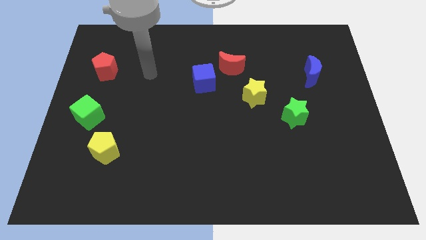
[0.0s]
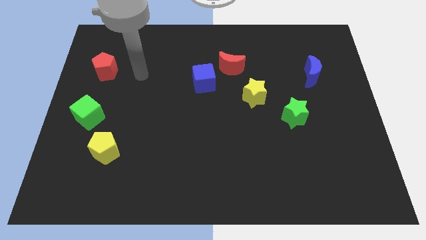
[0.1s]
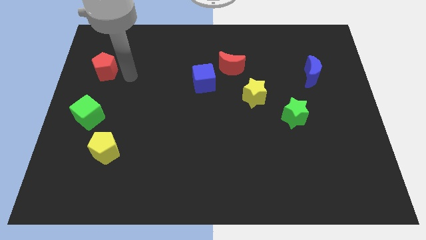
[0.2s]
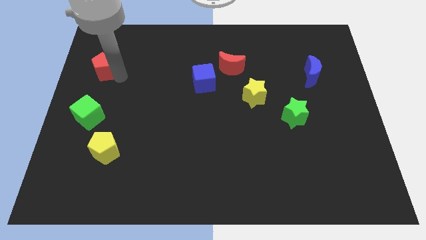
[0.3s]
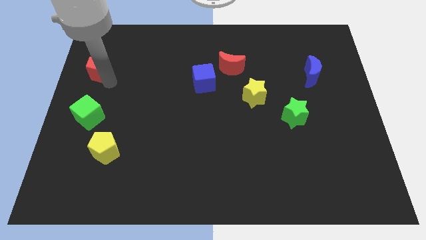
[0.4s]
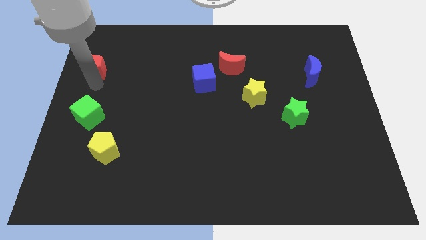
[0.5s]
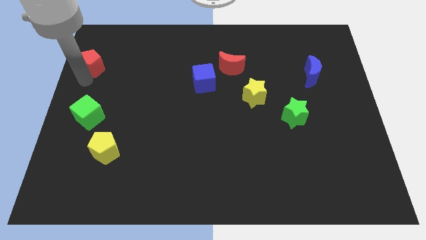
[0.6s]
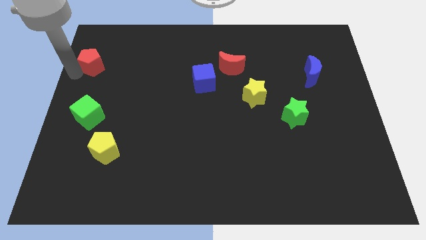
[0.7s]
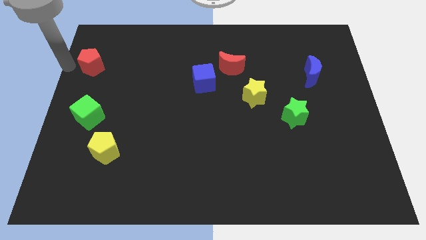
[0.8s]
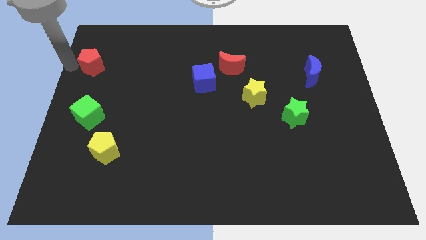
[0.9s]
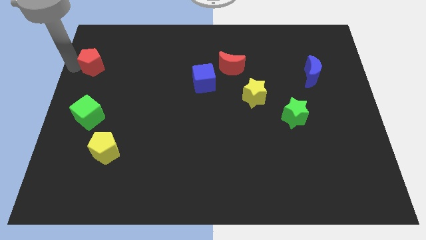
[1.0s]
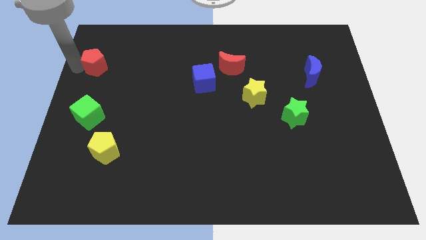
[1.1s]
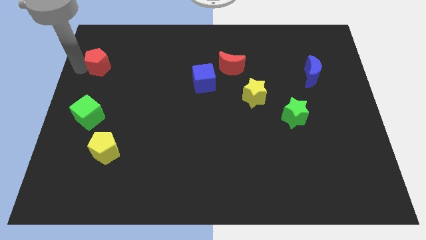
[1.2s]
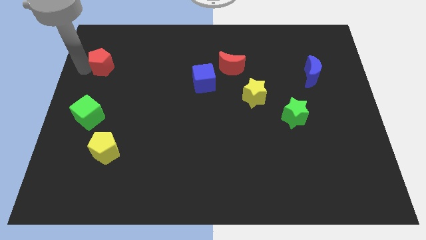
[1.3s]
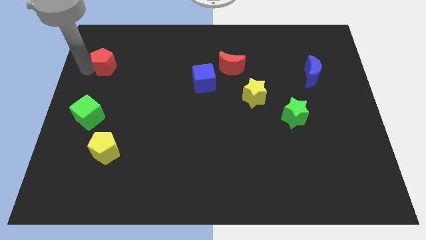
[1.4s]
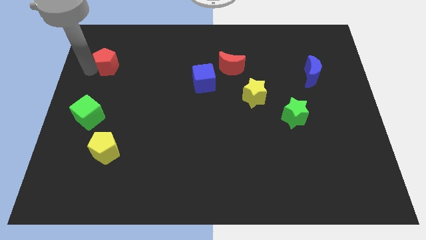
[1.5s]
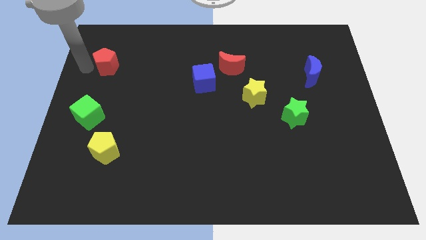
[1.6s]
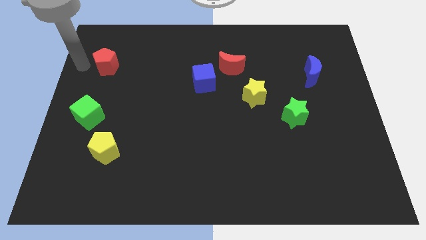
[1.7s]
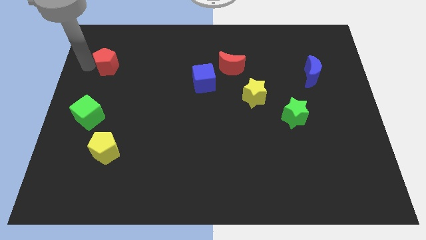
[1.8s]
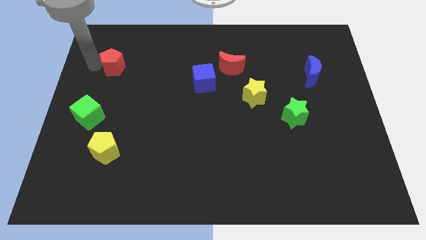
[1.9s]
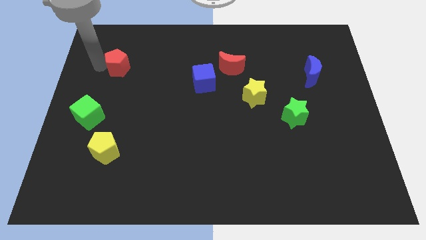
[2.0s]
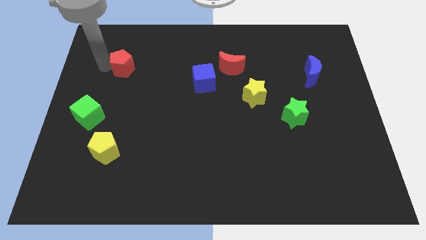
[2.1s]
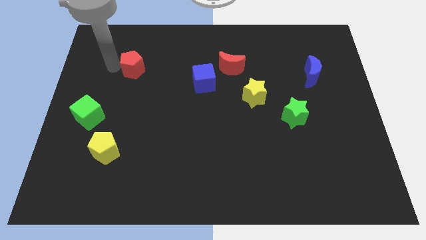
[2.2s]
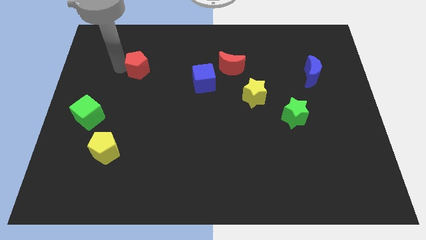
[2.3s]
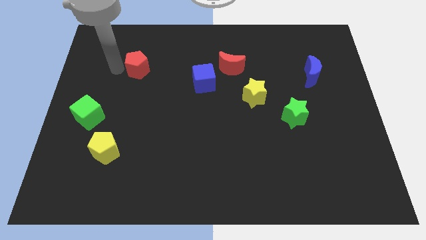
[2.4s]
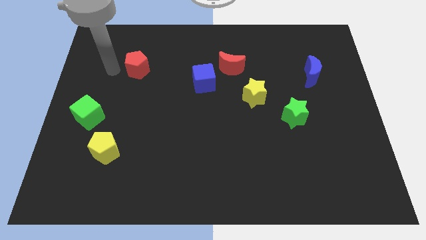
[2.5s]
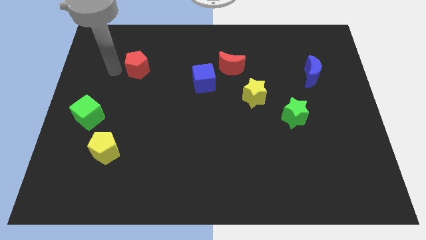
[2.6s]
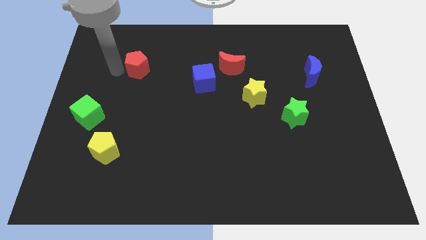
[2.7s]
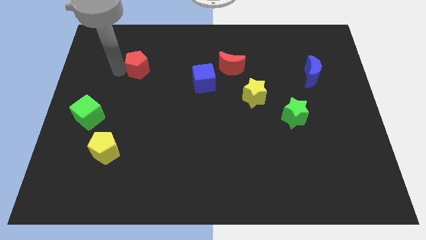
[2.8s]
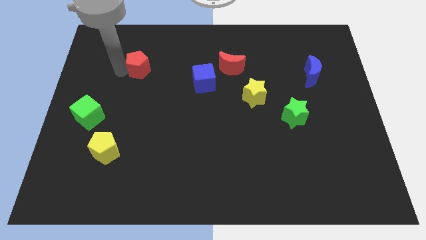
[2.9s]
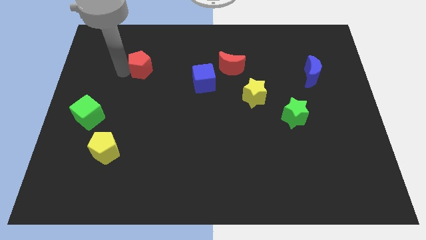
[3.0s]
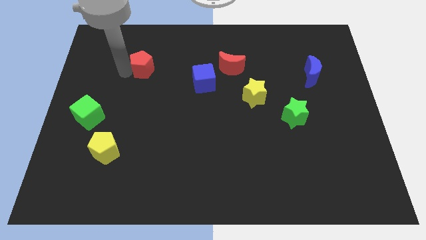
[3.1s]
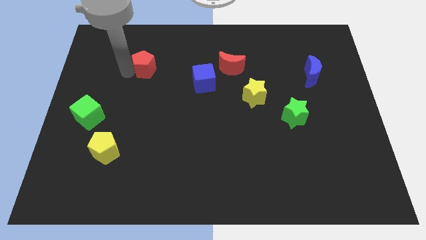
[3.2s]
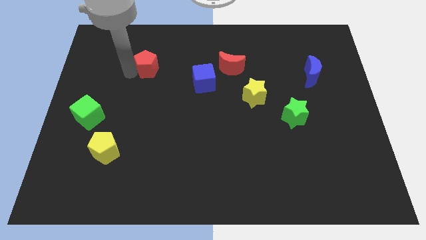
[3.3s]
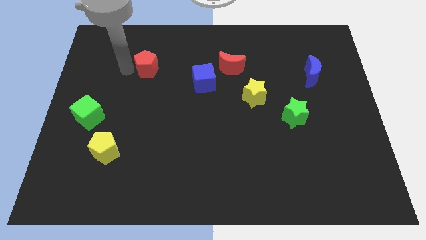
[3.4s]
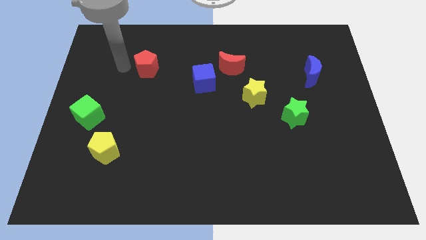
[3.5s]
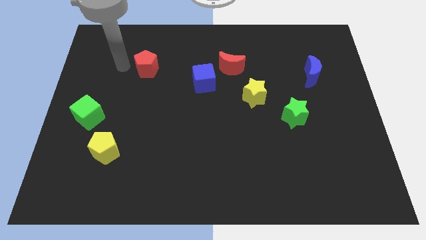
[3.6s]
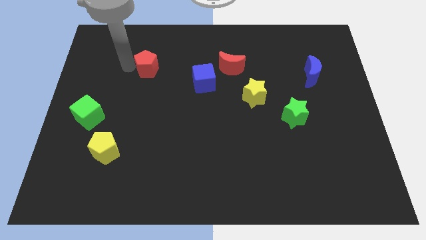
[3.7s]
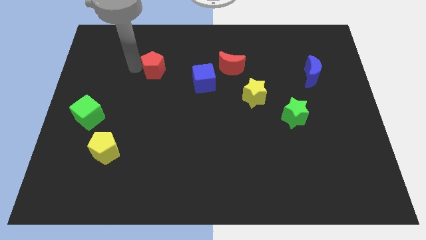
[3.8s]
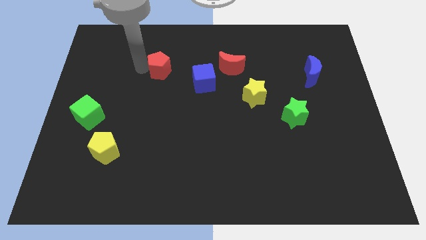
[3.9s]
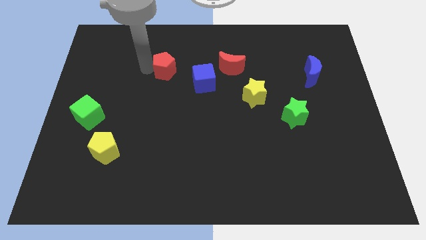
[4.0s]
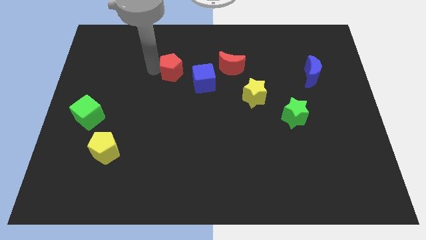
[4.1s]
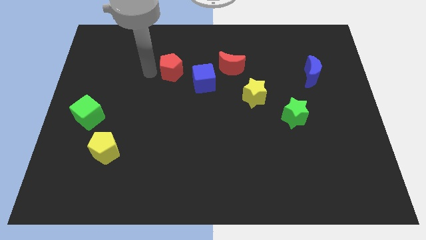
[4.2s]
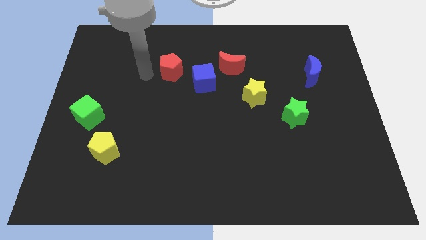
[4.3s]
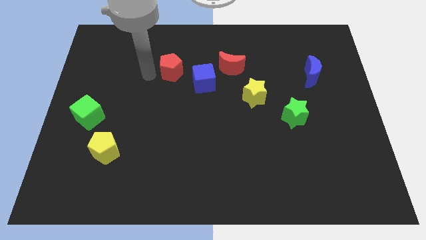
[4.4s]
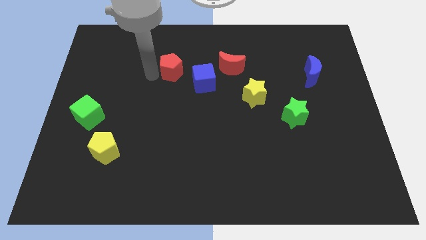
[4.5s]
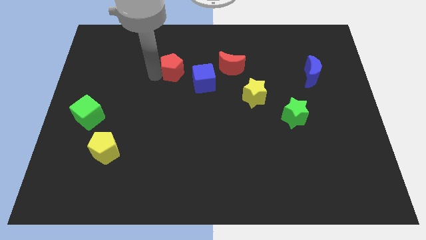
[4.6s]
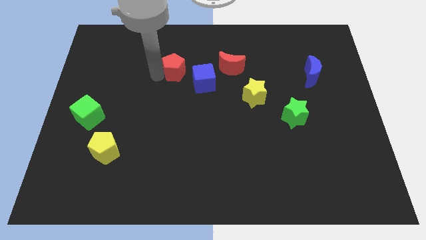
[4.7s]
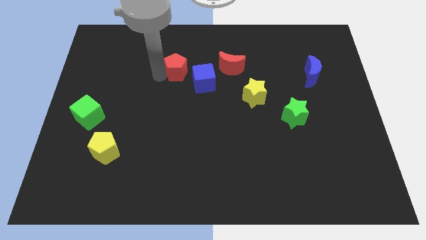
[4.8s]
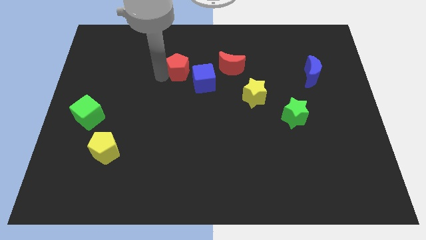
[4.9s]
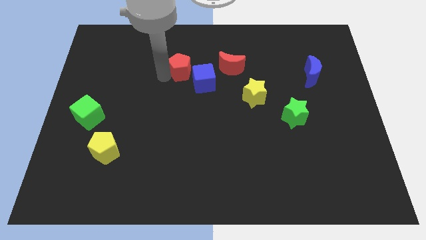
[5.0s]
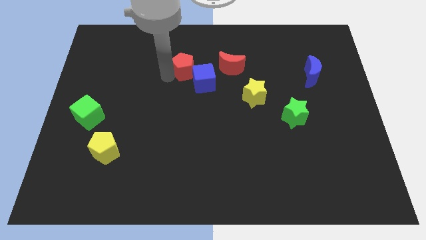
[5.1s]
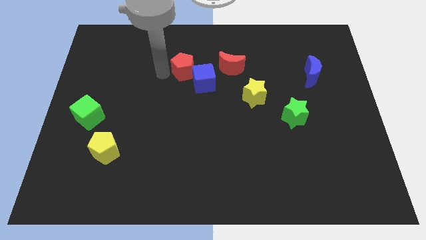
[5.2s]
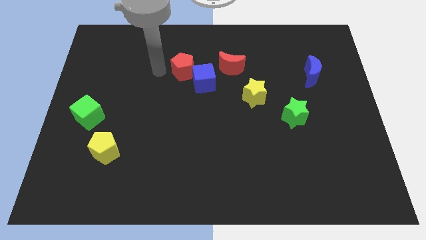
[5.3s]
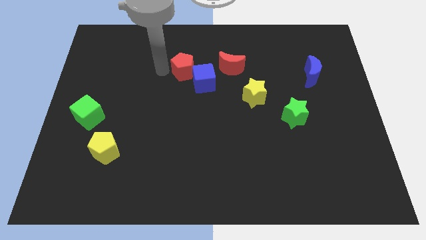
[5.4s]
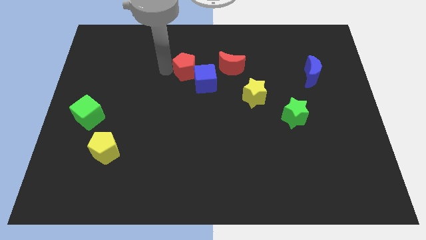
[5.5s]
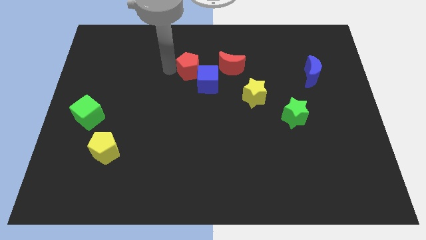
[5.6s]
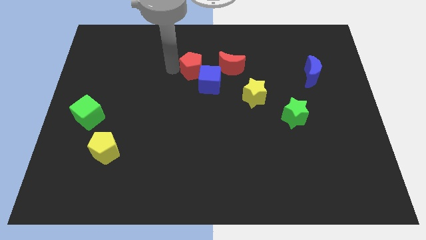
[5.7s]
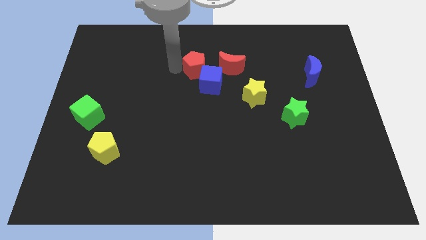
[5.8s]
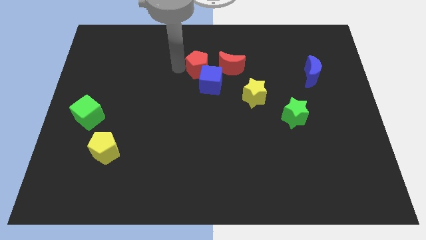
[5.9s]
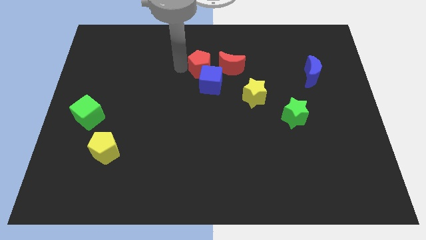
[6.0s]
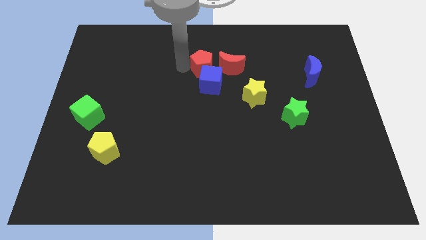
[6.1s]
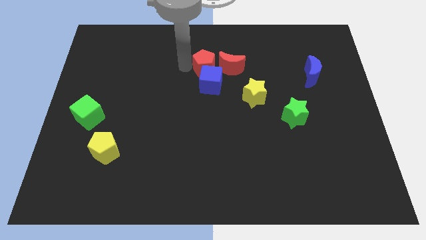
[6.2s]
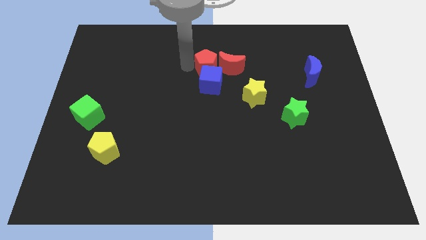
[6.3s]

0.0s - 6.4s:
slide the red pentagon towards the red moon
